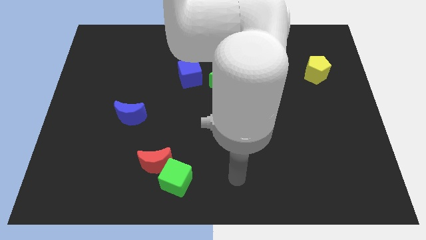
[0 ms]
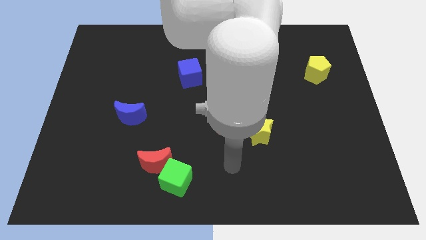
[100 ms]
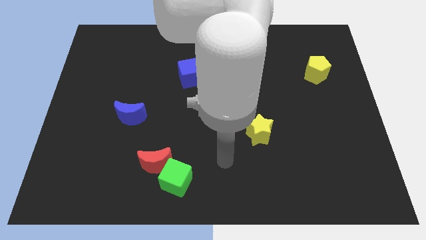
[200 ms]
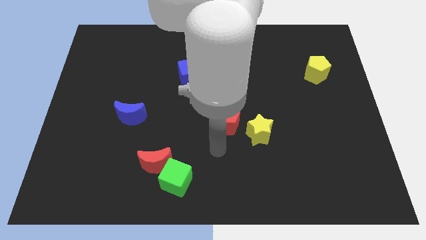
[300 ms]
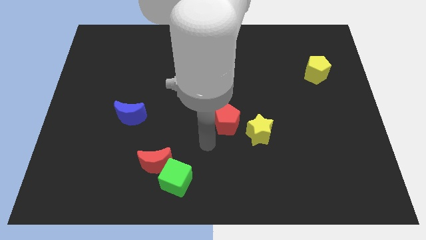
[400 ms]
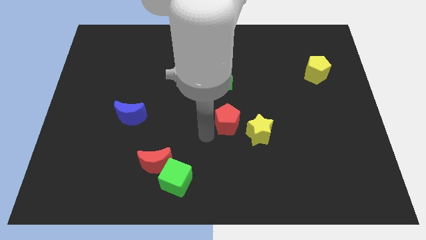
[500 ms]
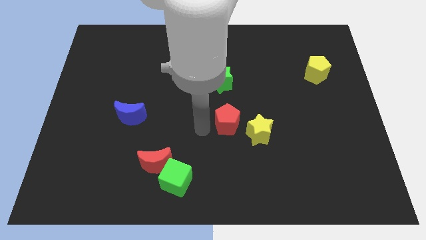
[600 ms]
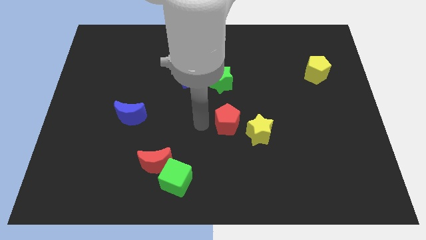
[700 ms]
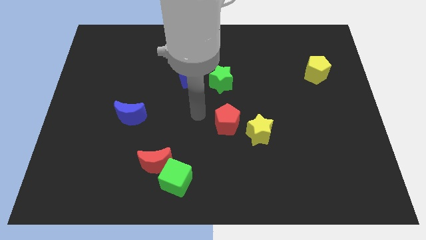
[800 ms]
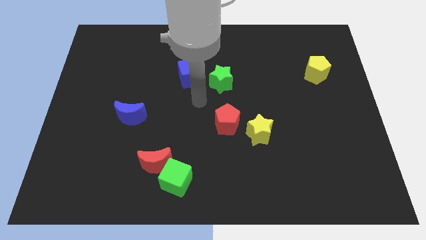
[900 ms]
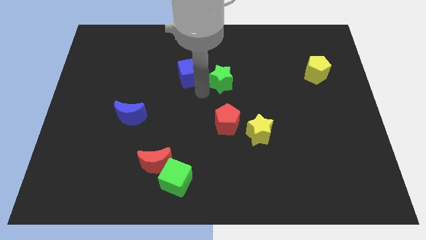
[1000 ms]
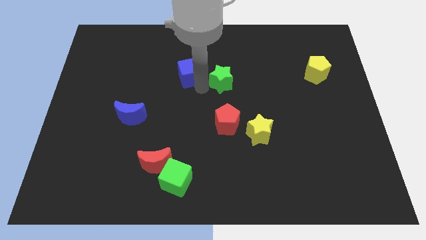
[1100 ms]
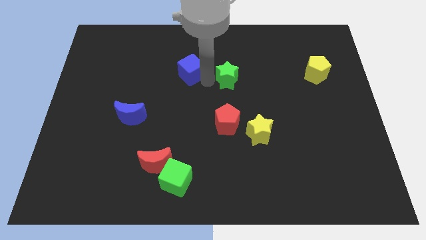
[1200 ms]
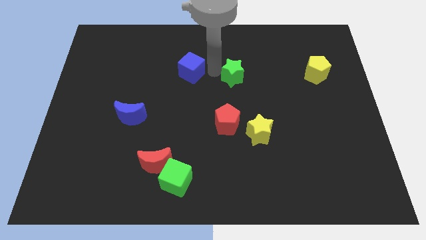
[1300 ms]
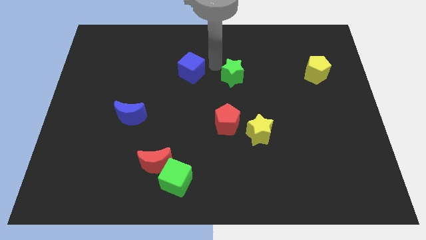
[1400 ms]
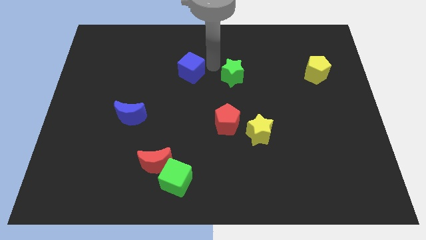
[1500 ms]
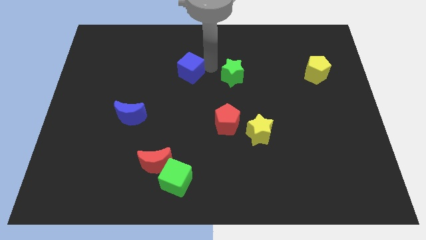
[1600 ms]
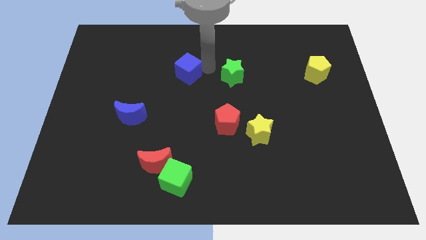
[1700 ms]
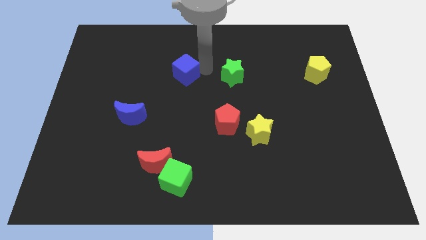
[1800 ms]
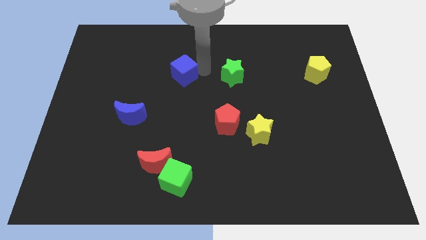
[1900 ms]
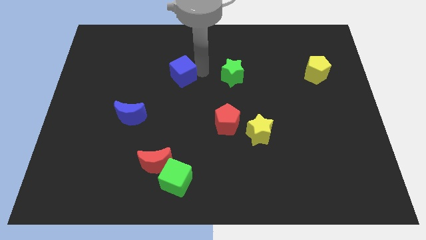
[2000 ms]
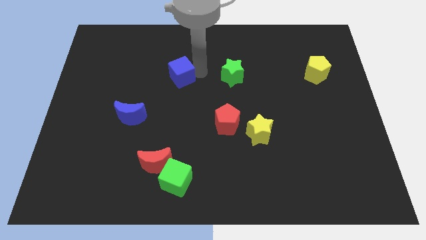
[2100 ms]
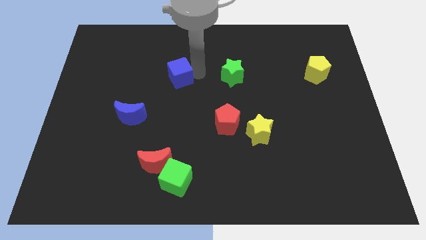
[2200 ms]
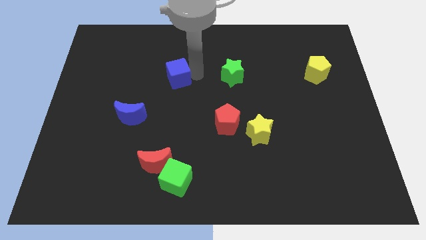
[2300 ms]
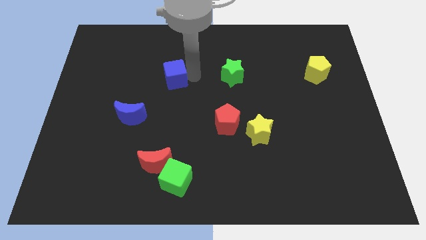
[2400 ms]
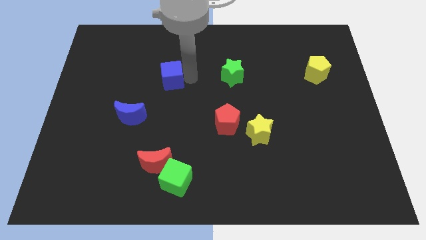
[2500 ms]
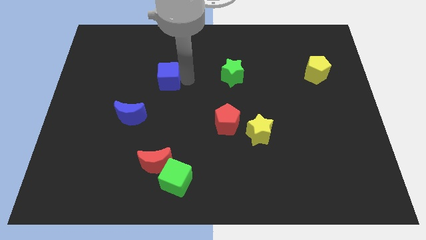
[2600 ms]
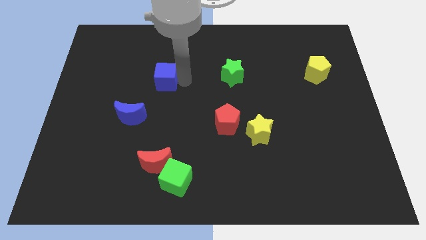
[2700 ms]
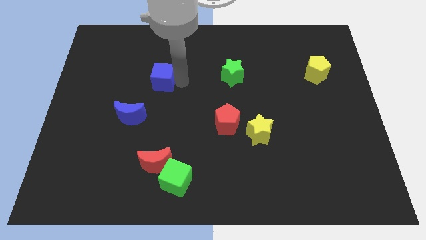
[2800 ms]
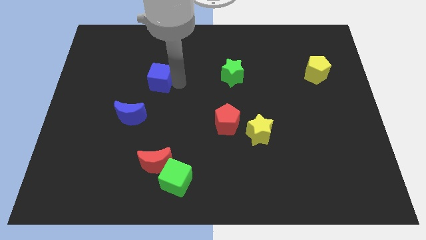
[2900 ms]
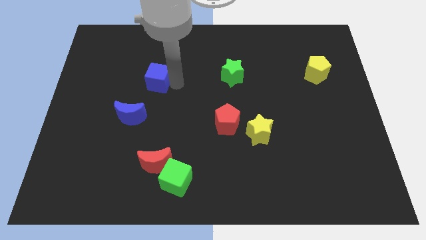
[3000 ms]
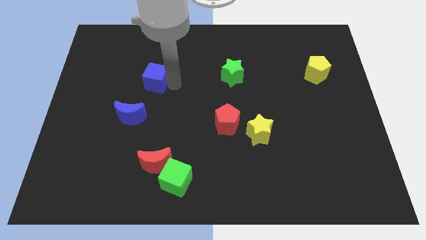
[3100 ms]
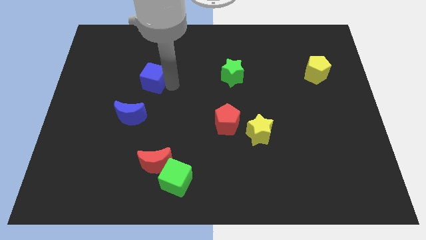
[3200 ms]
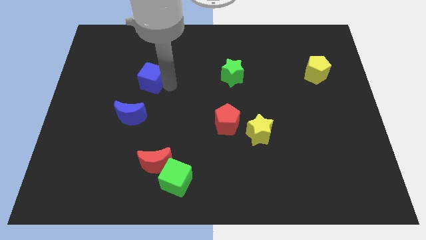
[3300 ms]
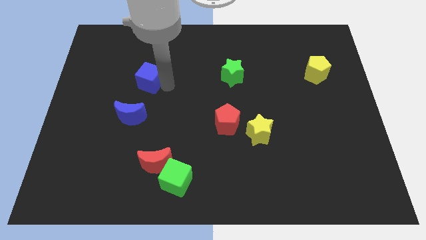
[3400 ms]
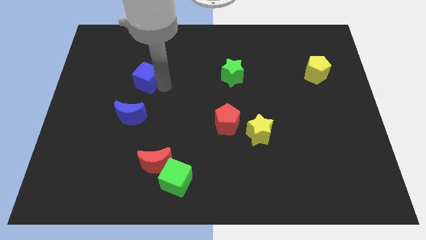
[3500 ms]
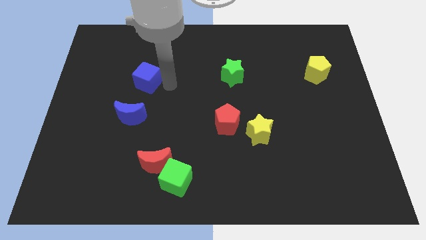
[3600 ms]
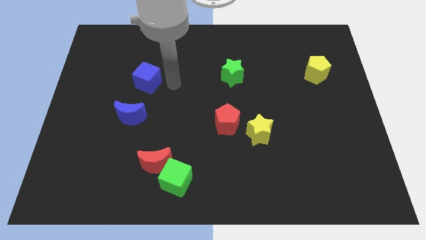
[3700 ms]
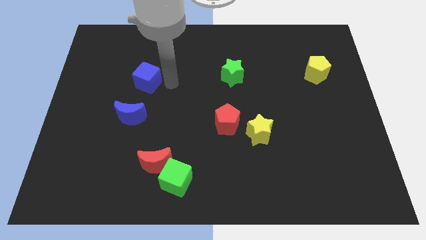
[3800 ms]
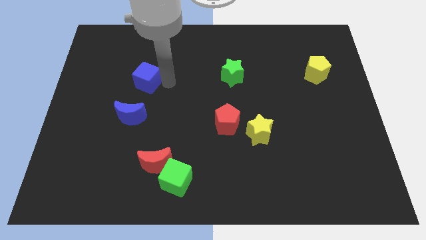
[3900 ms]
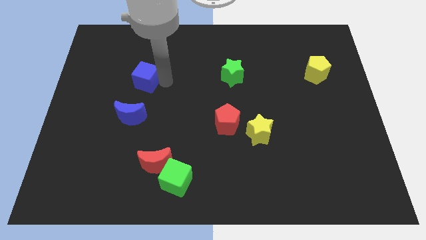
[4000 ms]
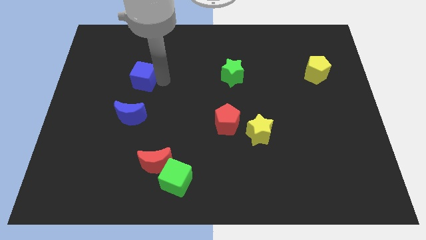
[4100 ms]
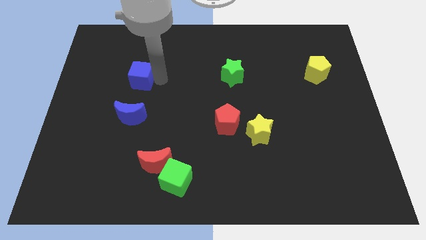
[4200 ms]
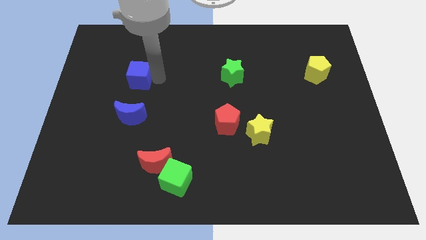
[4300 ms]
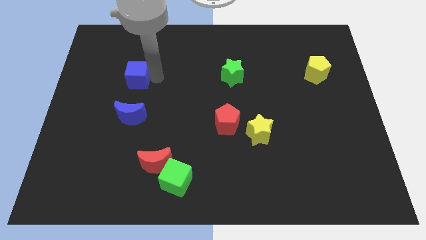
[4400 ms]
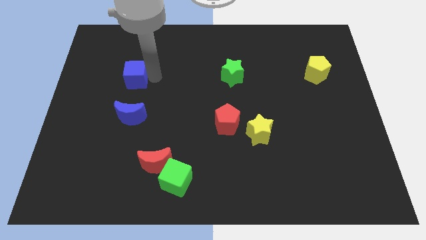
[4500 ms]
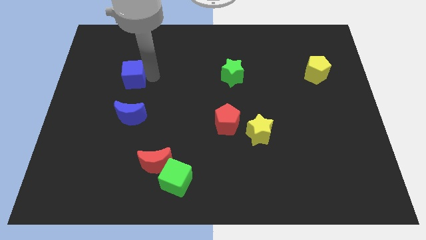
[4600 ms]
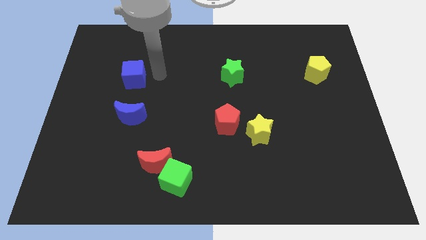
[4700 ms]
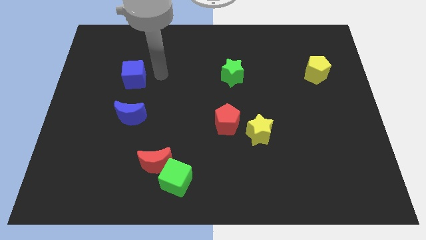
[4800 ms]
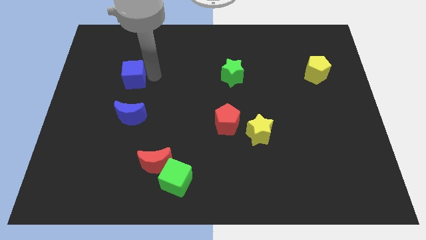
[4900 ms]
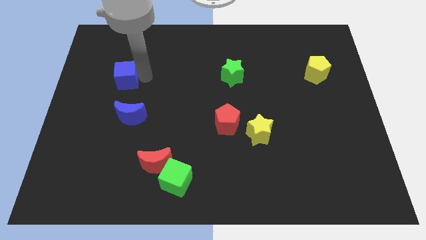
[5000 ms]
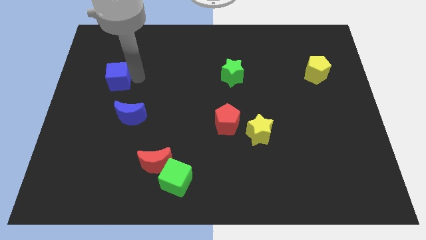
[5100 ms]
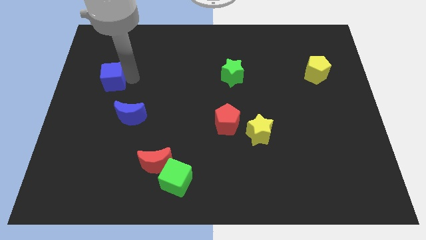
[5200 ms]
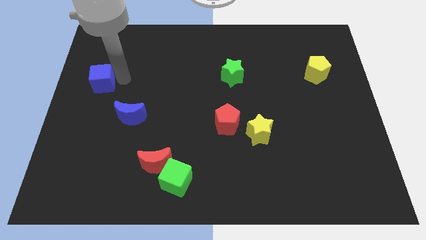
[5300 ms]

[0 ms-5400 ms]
move the blue cube to the left side of the board

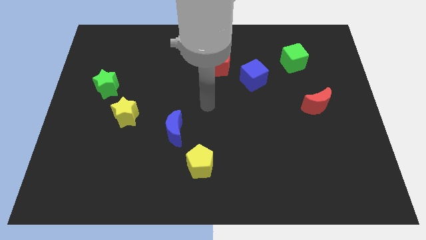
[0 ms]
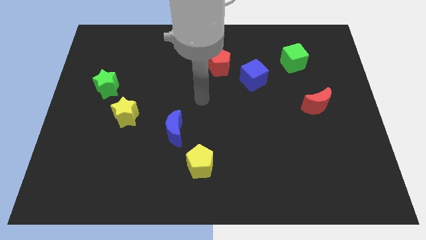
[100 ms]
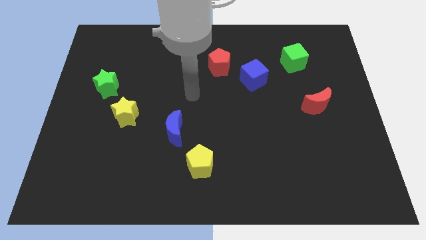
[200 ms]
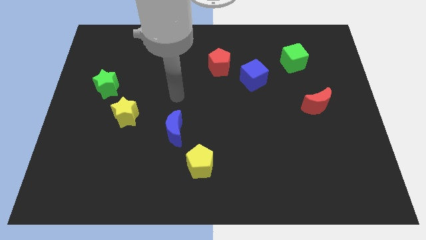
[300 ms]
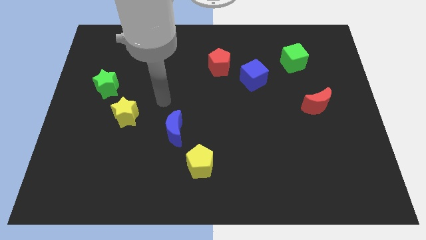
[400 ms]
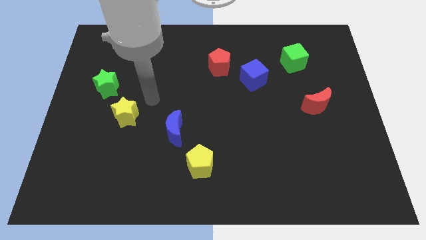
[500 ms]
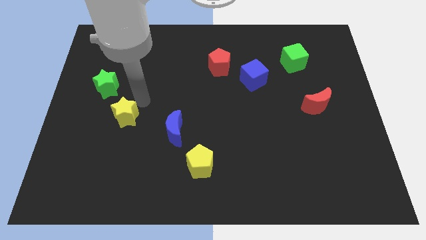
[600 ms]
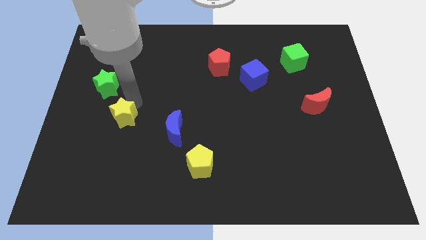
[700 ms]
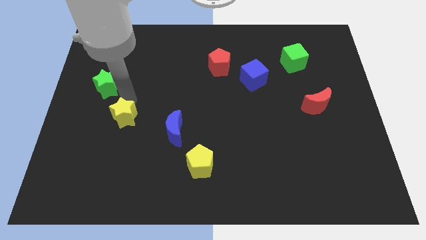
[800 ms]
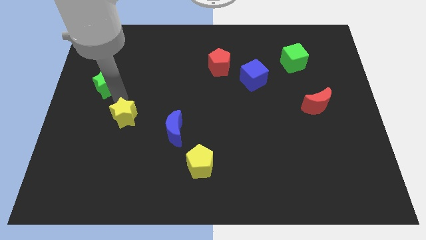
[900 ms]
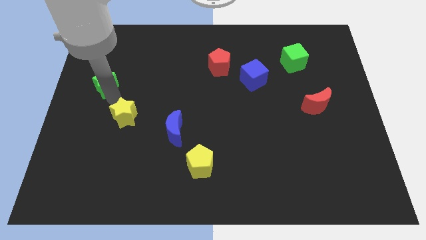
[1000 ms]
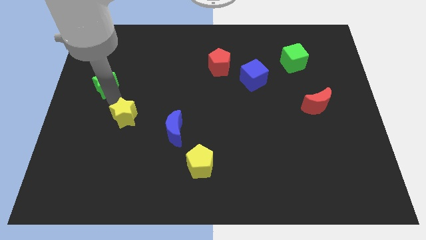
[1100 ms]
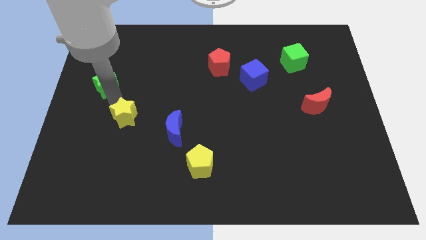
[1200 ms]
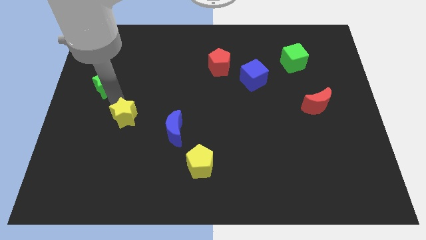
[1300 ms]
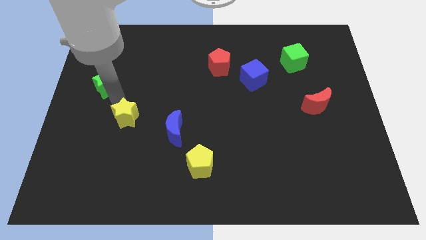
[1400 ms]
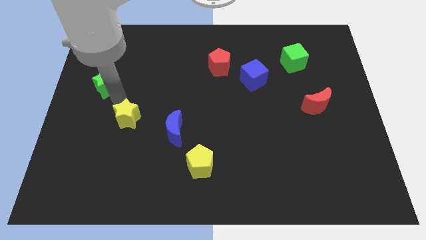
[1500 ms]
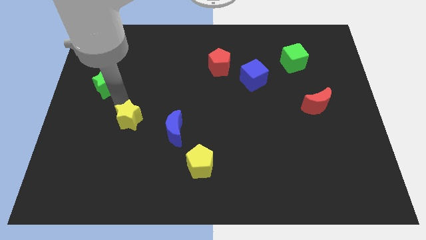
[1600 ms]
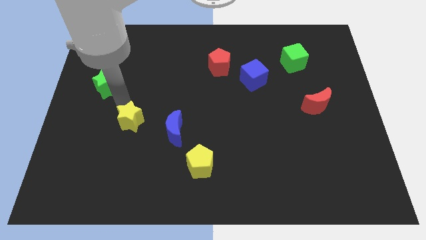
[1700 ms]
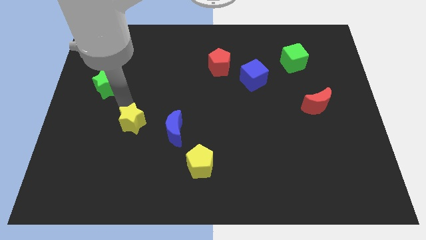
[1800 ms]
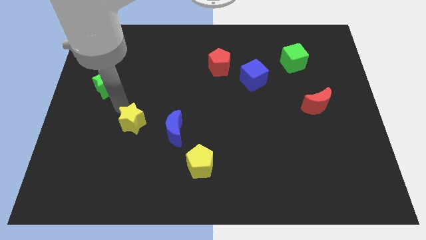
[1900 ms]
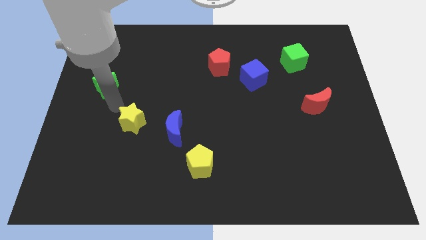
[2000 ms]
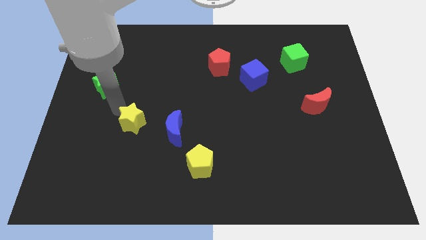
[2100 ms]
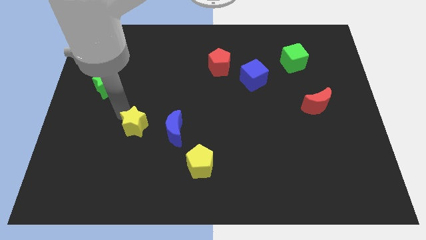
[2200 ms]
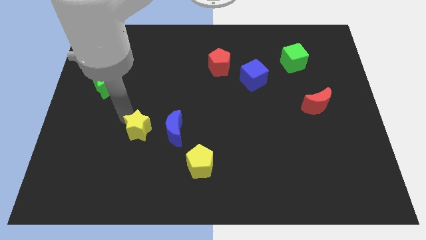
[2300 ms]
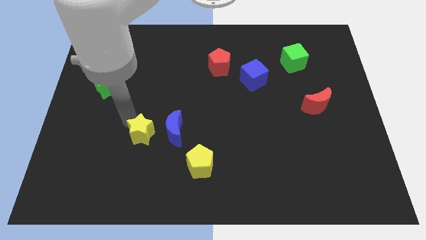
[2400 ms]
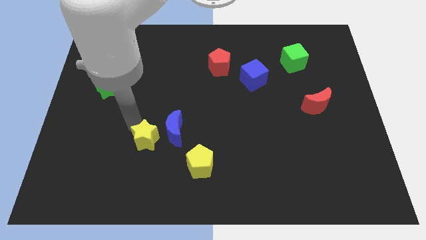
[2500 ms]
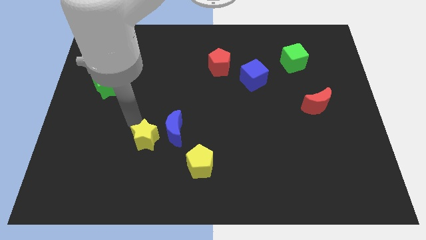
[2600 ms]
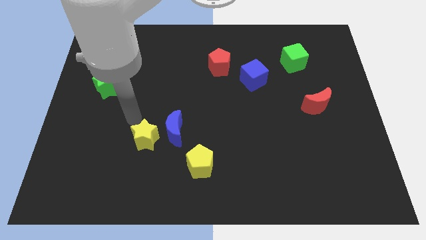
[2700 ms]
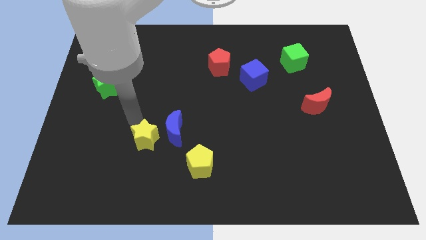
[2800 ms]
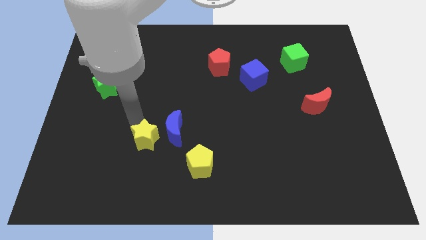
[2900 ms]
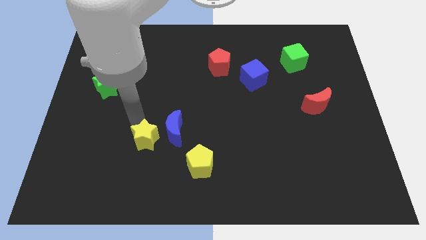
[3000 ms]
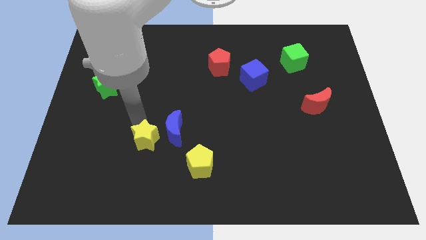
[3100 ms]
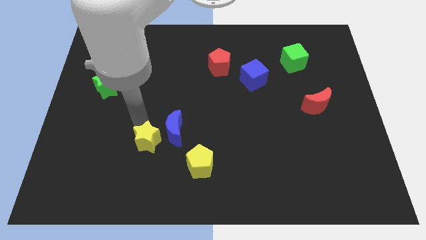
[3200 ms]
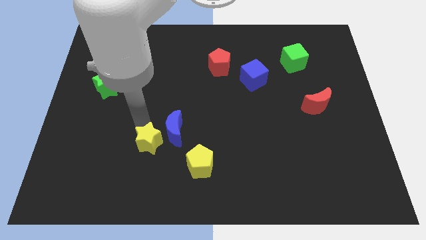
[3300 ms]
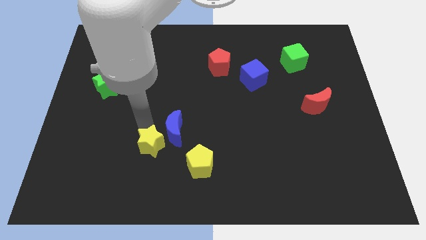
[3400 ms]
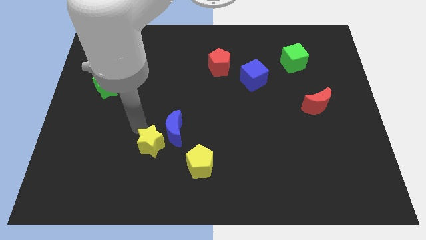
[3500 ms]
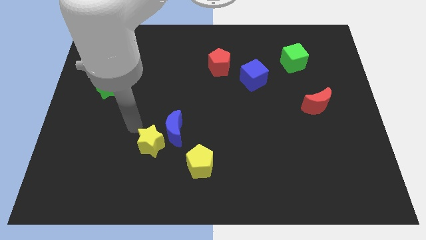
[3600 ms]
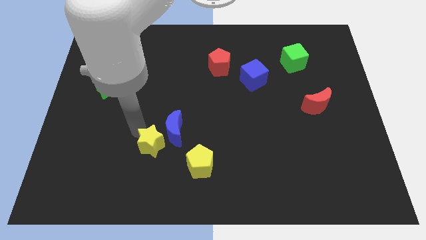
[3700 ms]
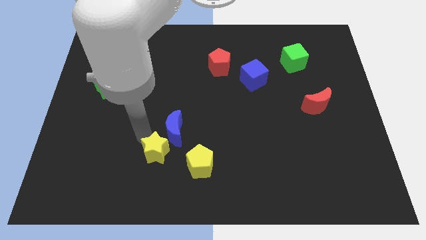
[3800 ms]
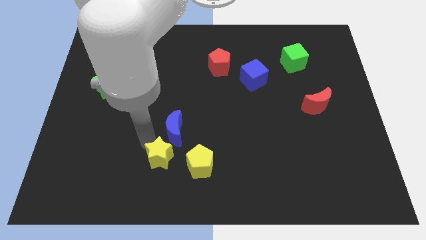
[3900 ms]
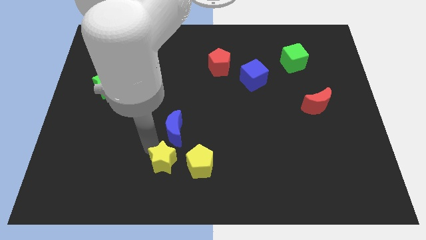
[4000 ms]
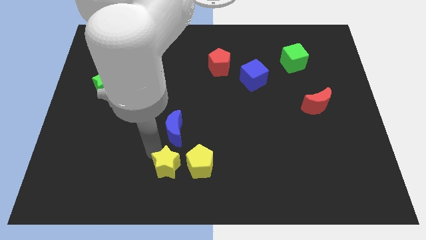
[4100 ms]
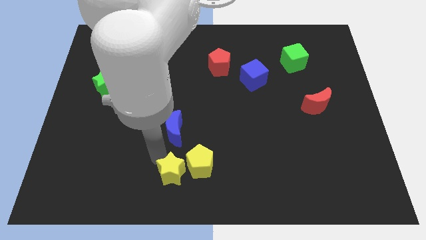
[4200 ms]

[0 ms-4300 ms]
put the yellow star to the bottom
